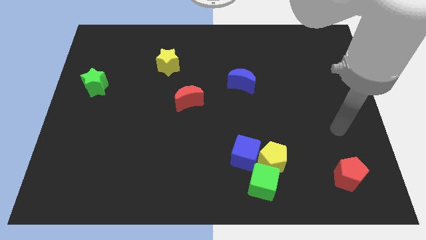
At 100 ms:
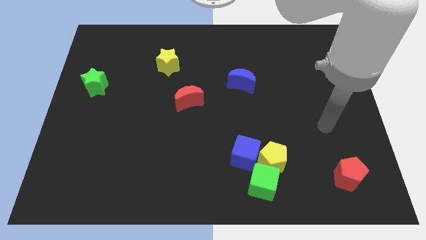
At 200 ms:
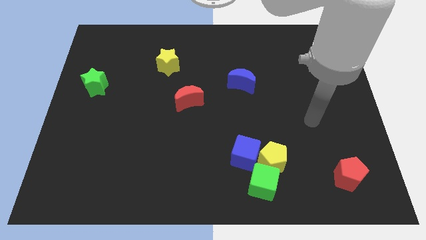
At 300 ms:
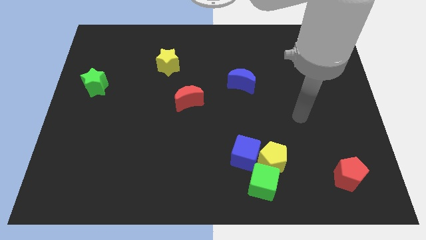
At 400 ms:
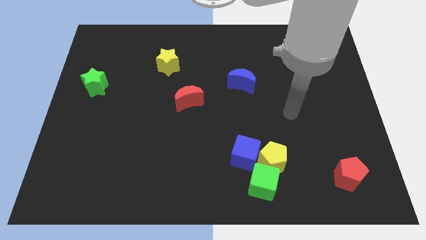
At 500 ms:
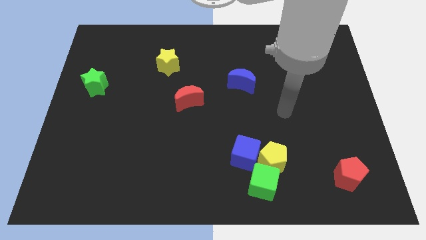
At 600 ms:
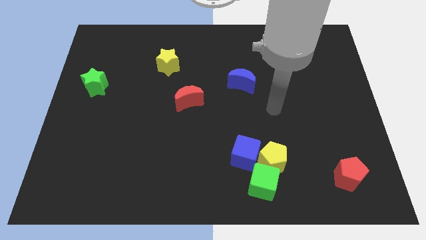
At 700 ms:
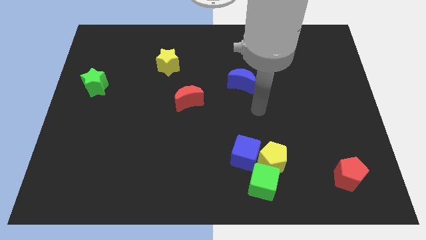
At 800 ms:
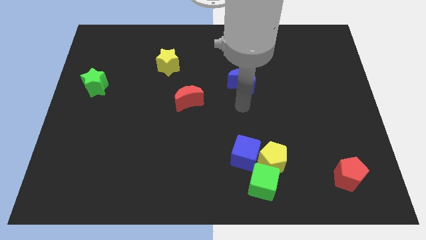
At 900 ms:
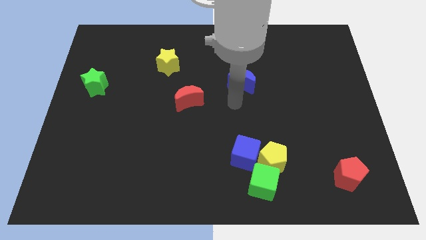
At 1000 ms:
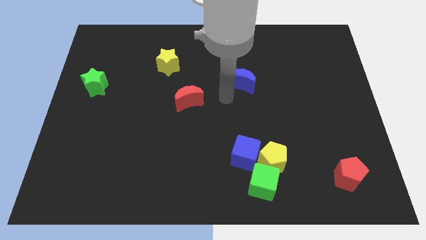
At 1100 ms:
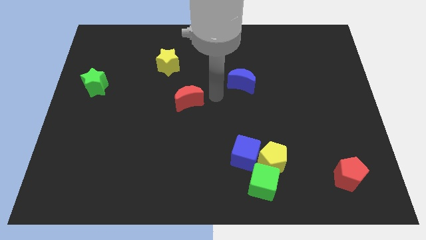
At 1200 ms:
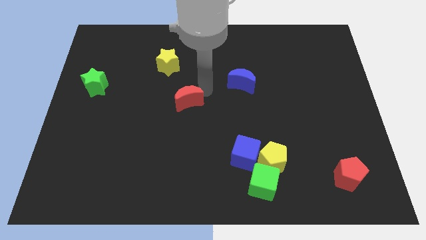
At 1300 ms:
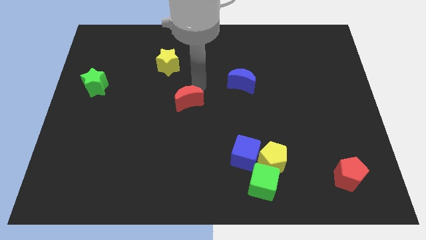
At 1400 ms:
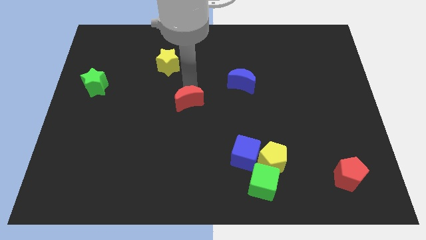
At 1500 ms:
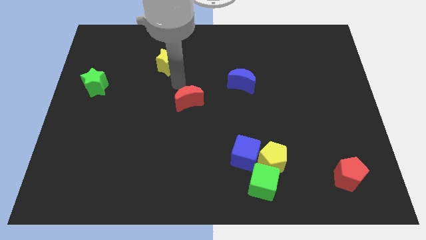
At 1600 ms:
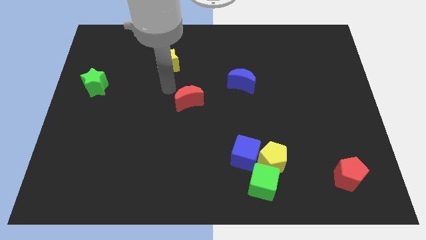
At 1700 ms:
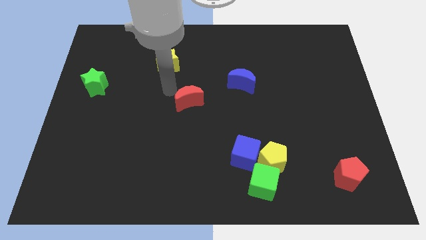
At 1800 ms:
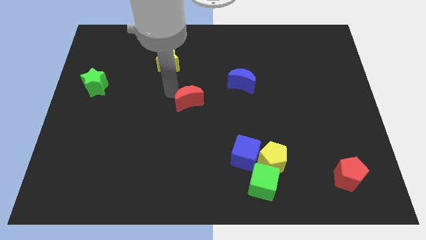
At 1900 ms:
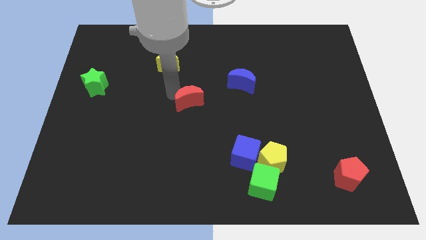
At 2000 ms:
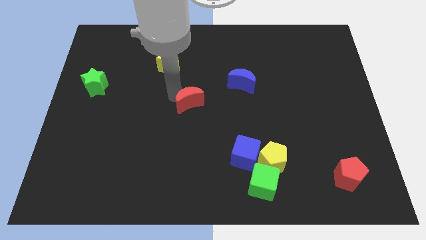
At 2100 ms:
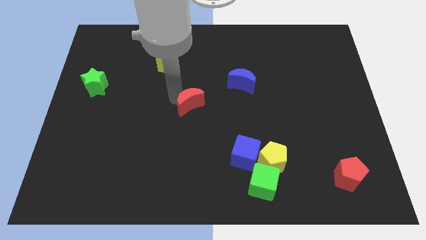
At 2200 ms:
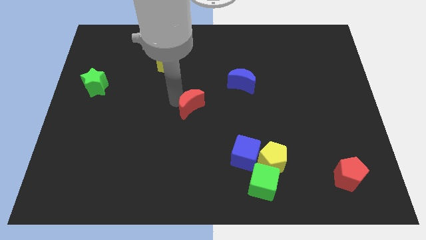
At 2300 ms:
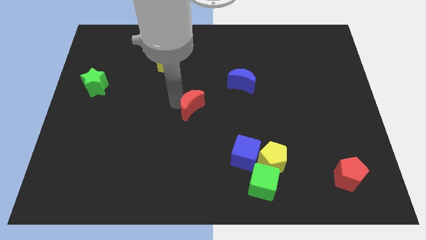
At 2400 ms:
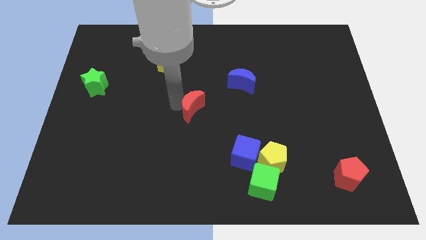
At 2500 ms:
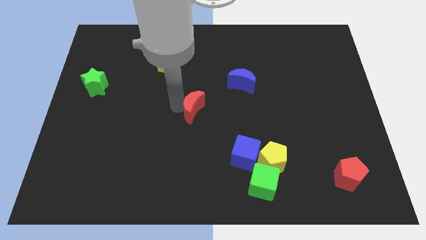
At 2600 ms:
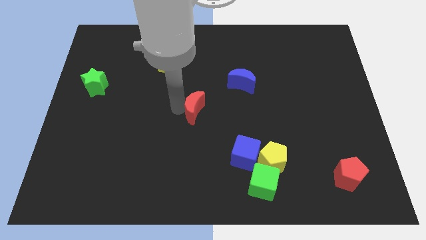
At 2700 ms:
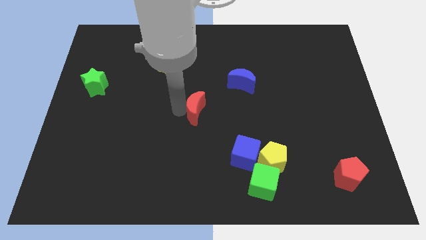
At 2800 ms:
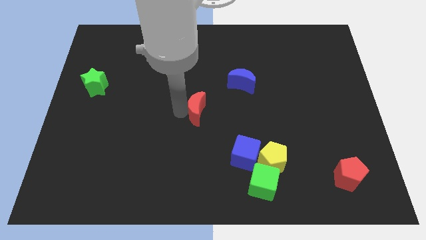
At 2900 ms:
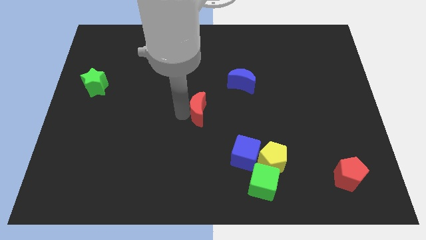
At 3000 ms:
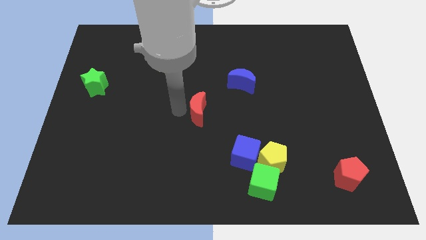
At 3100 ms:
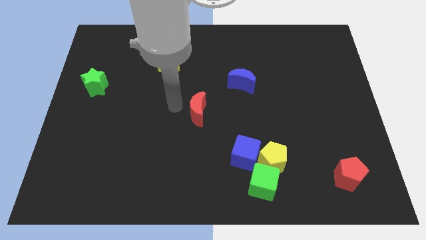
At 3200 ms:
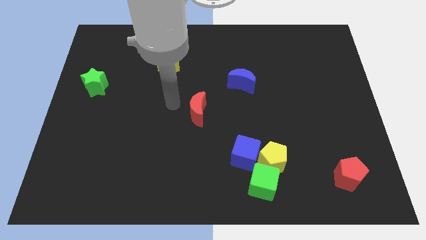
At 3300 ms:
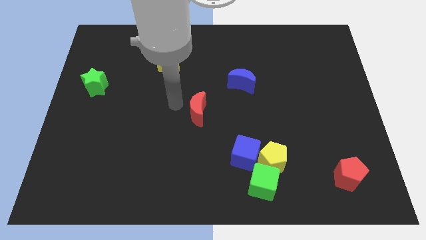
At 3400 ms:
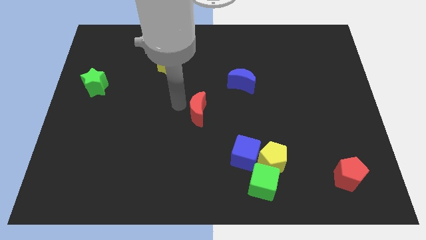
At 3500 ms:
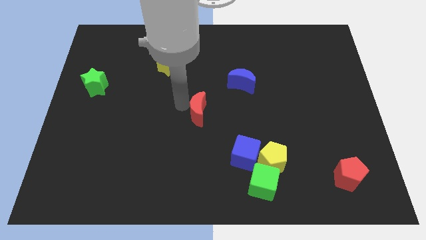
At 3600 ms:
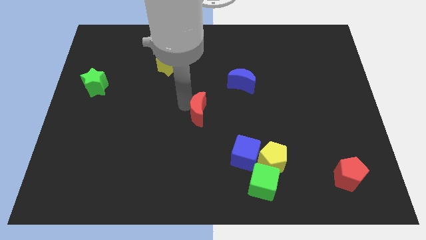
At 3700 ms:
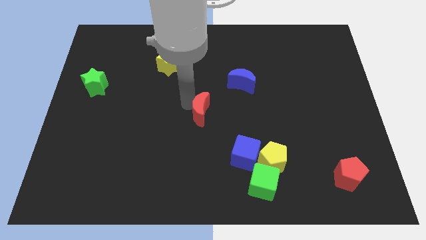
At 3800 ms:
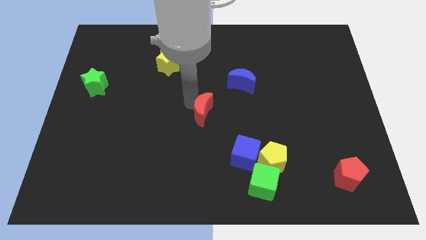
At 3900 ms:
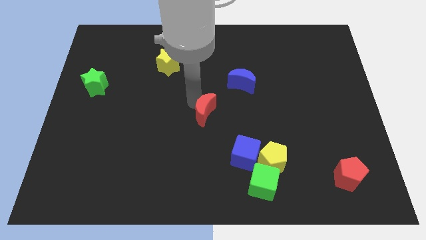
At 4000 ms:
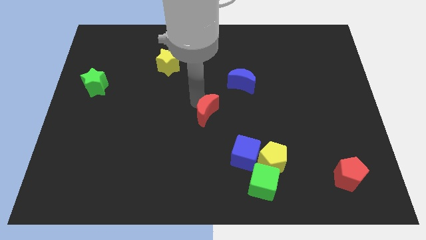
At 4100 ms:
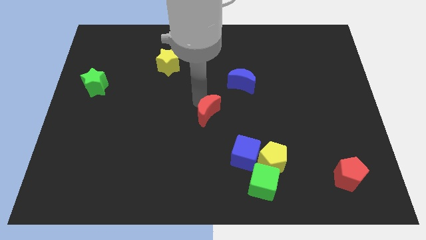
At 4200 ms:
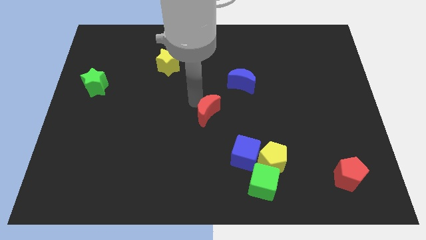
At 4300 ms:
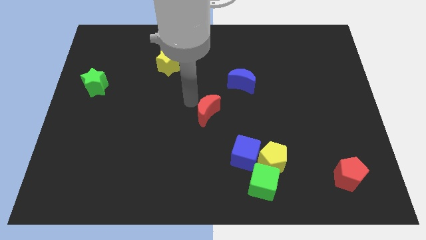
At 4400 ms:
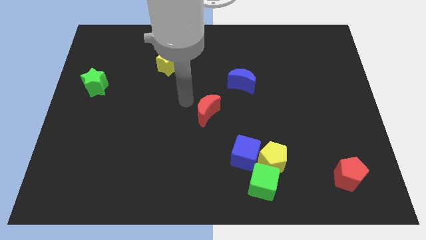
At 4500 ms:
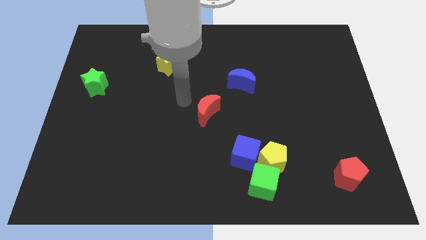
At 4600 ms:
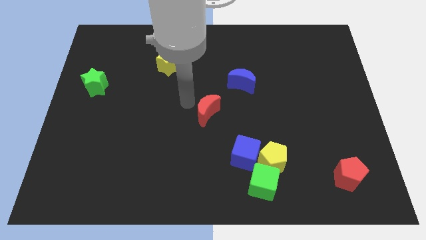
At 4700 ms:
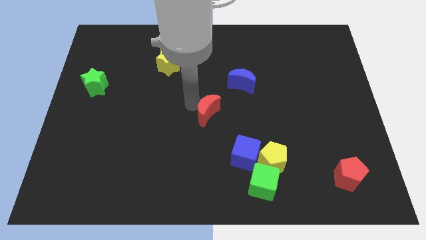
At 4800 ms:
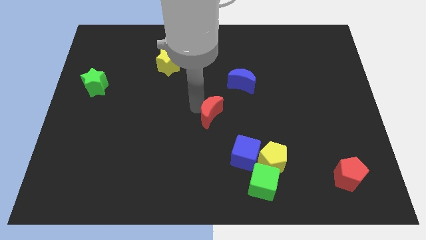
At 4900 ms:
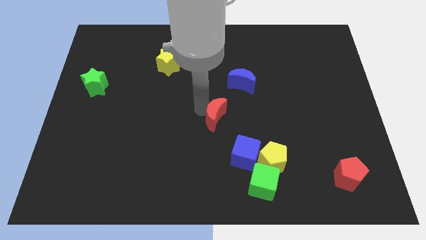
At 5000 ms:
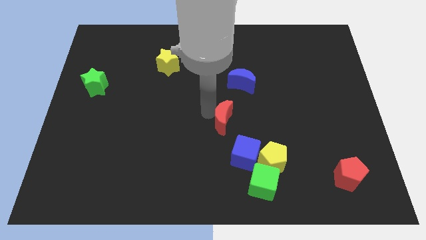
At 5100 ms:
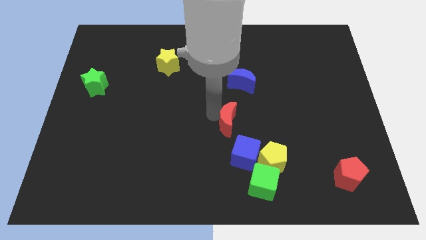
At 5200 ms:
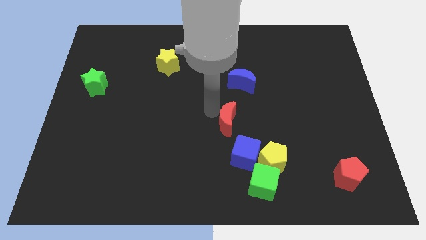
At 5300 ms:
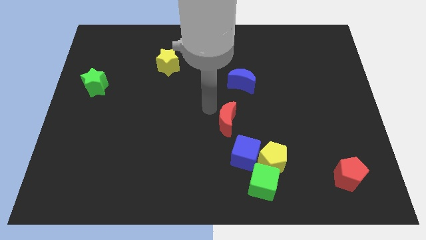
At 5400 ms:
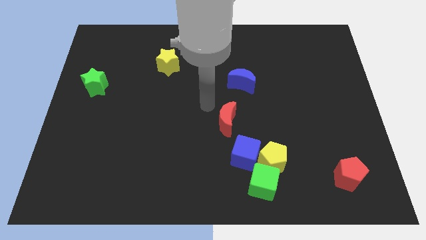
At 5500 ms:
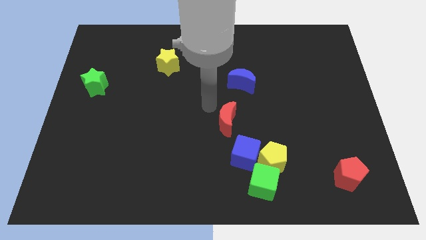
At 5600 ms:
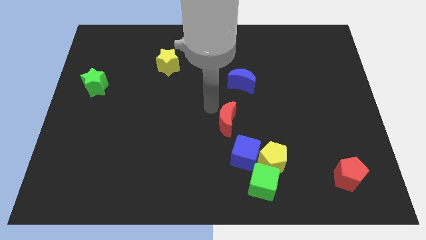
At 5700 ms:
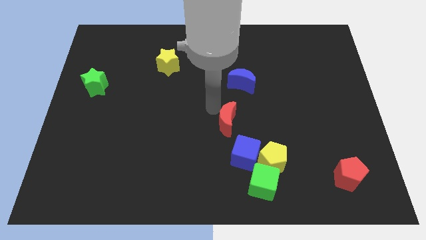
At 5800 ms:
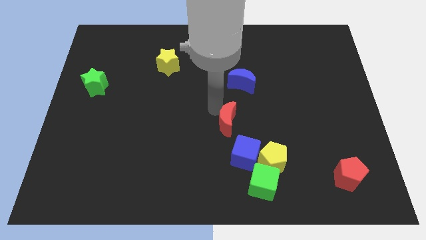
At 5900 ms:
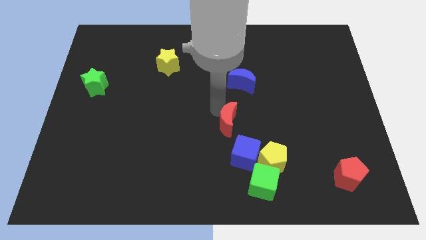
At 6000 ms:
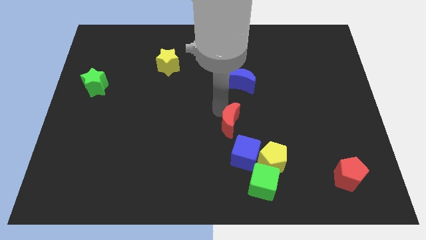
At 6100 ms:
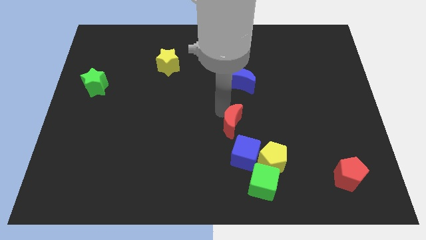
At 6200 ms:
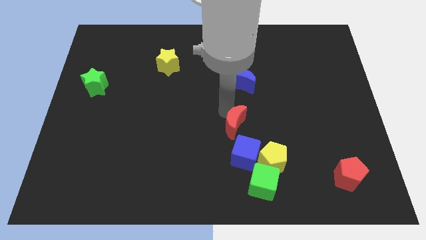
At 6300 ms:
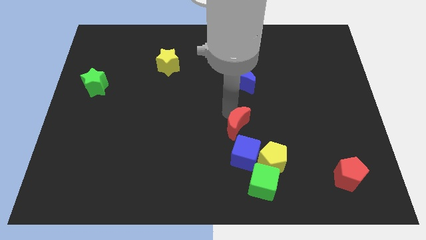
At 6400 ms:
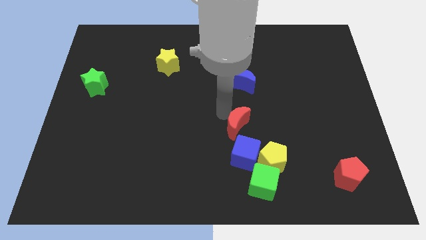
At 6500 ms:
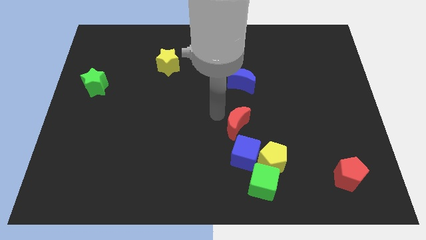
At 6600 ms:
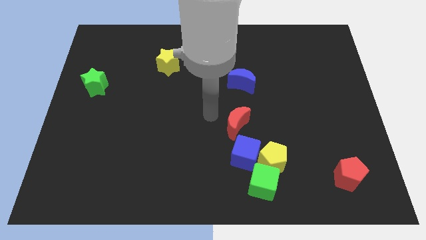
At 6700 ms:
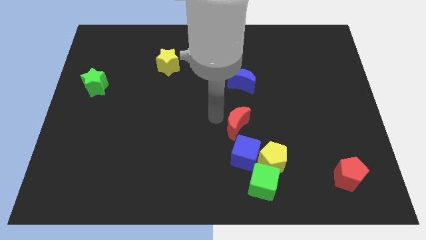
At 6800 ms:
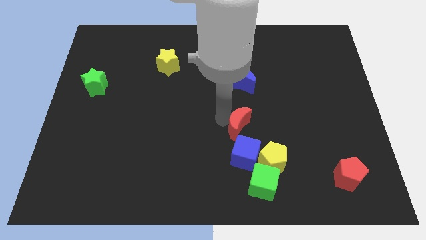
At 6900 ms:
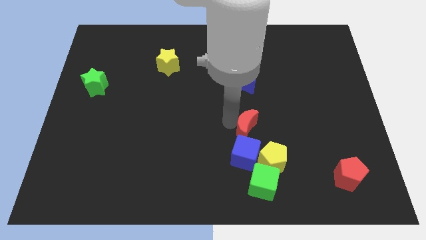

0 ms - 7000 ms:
push the red moon to the top right side of the blue cube
